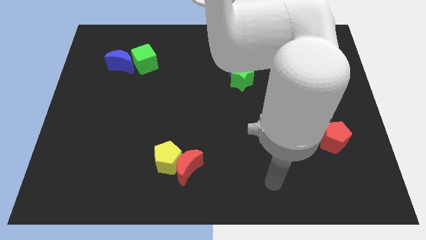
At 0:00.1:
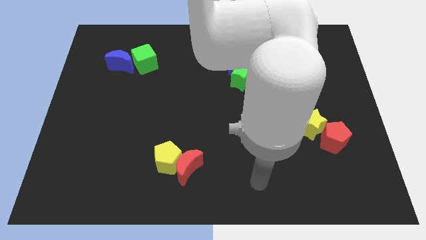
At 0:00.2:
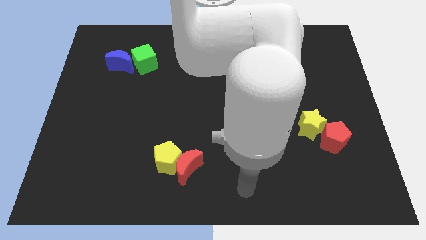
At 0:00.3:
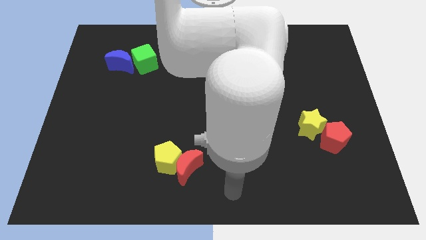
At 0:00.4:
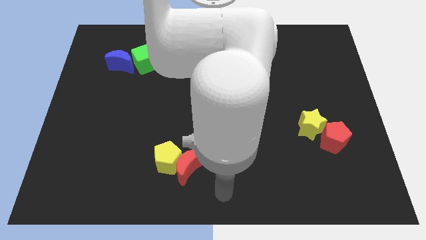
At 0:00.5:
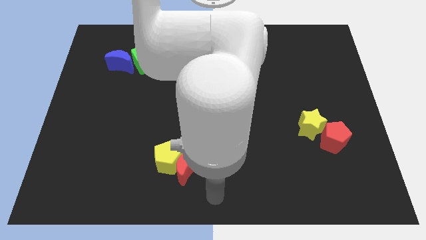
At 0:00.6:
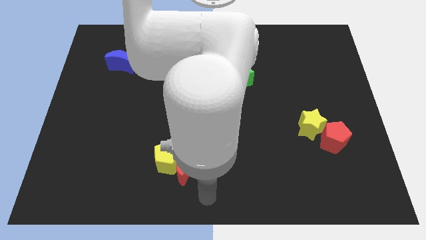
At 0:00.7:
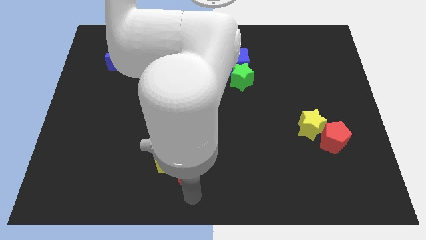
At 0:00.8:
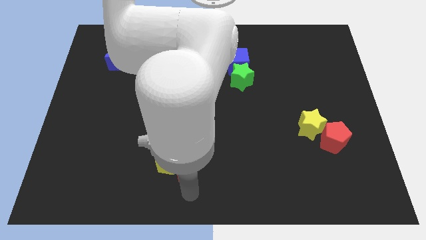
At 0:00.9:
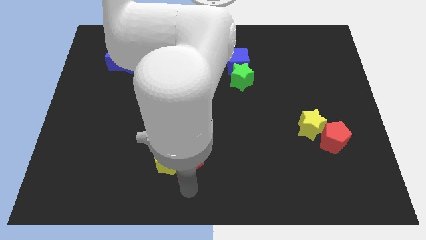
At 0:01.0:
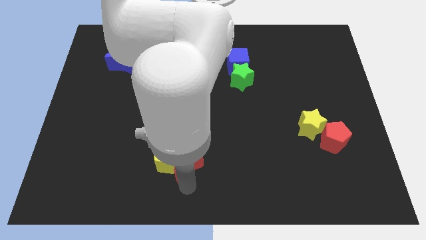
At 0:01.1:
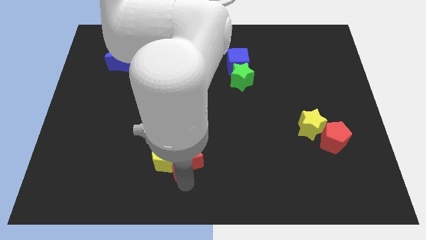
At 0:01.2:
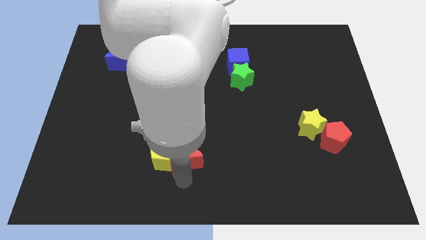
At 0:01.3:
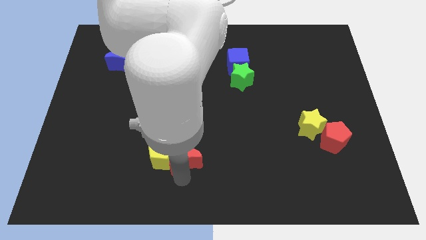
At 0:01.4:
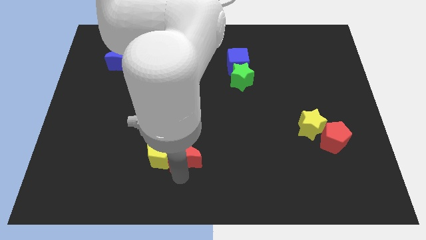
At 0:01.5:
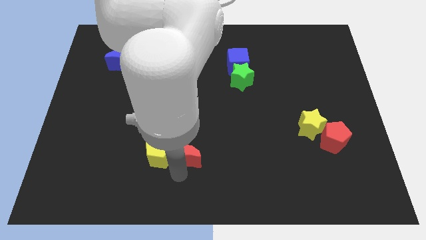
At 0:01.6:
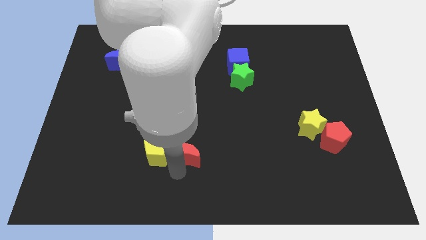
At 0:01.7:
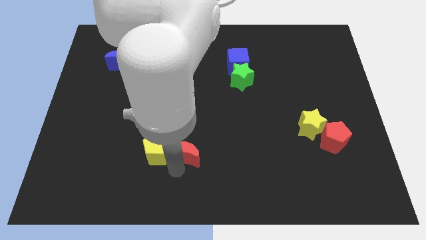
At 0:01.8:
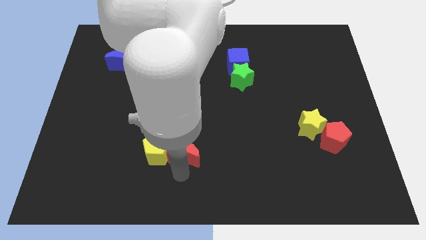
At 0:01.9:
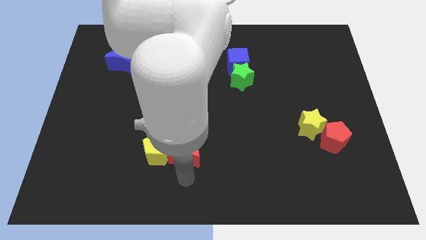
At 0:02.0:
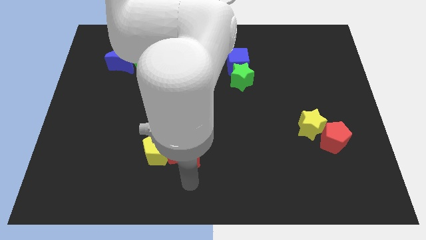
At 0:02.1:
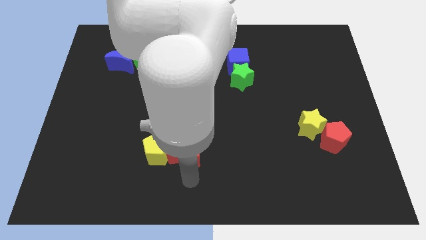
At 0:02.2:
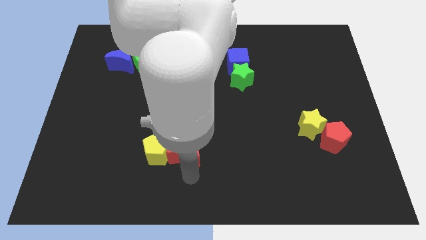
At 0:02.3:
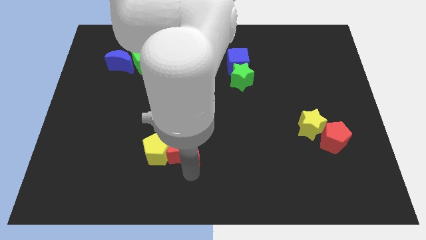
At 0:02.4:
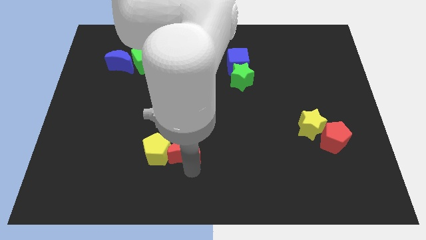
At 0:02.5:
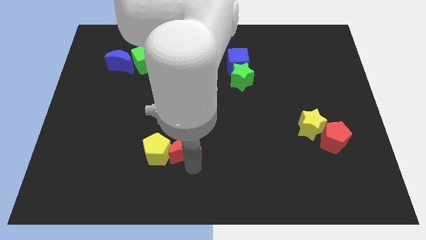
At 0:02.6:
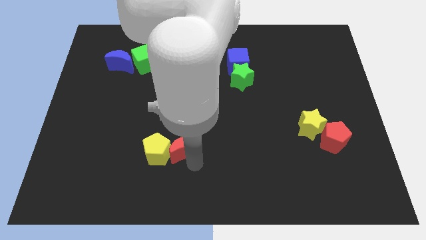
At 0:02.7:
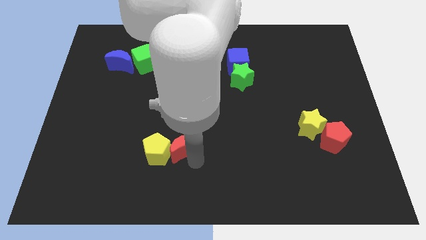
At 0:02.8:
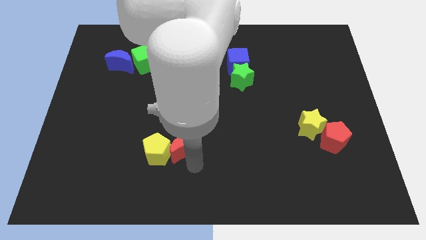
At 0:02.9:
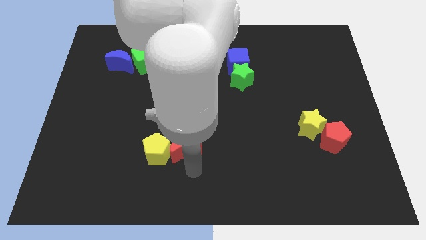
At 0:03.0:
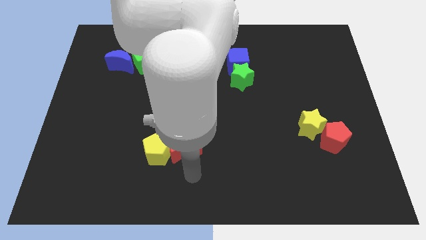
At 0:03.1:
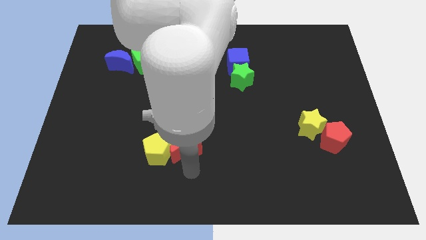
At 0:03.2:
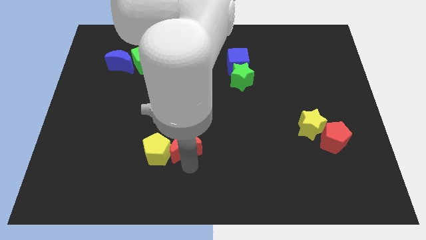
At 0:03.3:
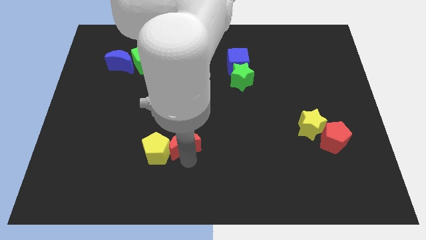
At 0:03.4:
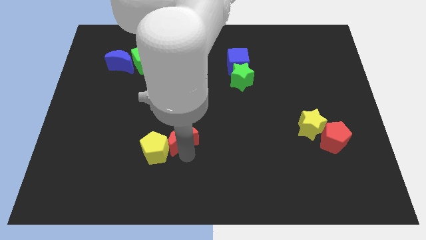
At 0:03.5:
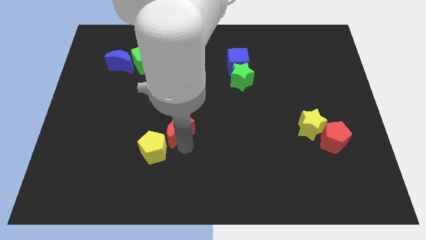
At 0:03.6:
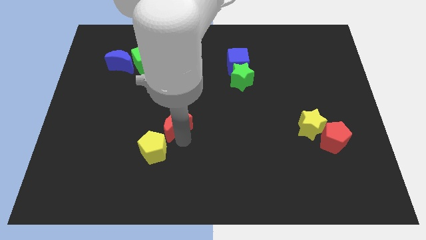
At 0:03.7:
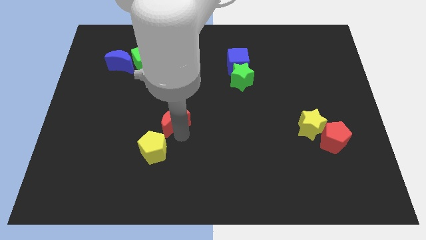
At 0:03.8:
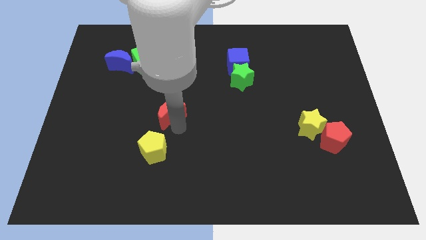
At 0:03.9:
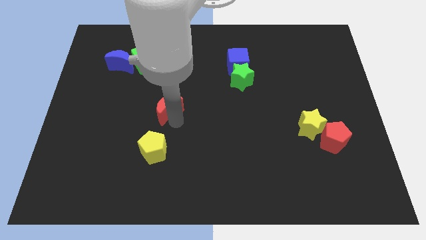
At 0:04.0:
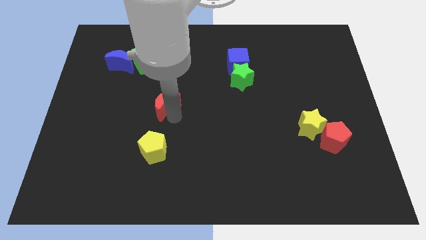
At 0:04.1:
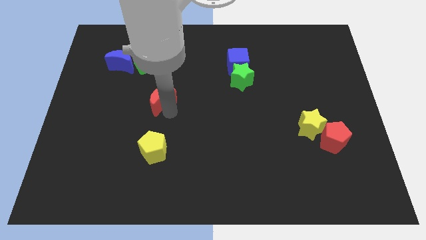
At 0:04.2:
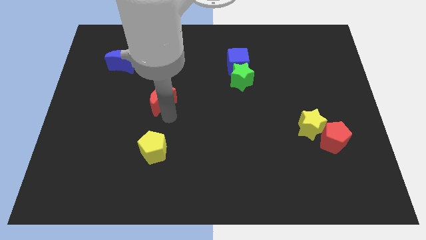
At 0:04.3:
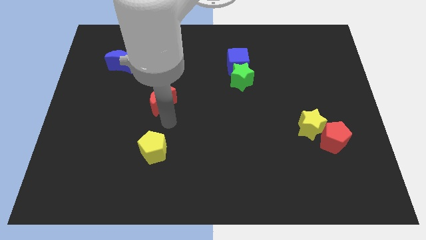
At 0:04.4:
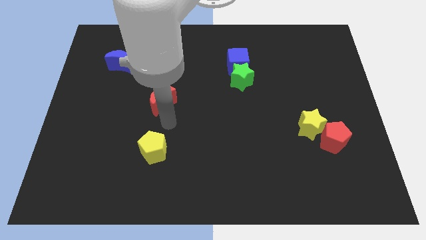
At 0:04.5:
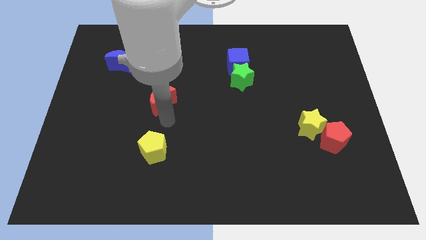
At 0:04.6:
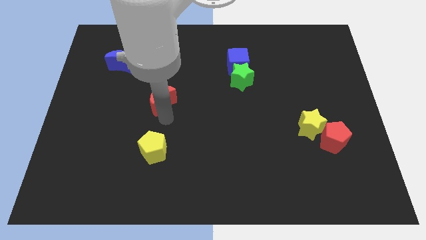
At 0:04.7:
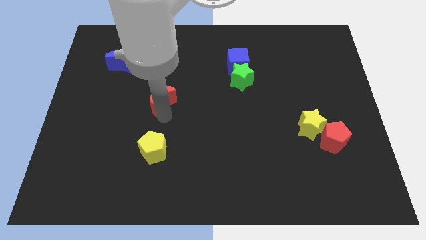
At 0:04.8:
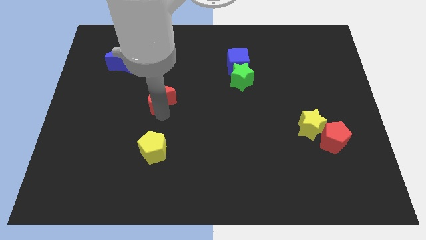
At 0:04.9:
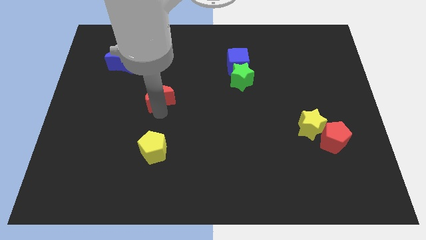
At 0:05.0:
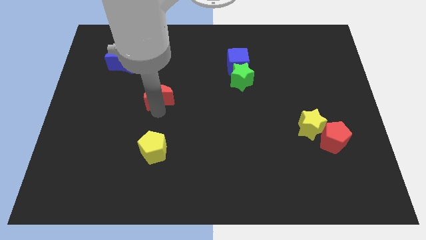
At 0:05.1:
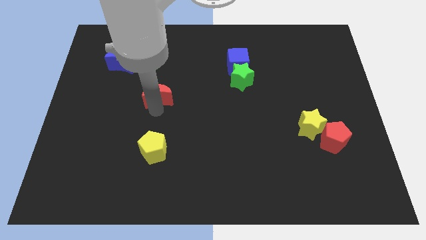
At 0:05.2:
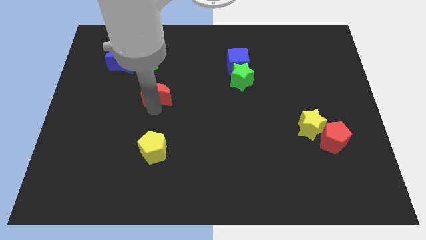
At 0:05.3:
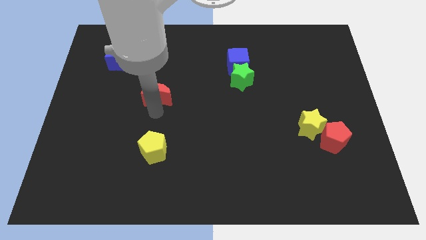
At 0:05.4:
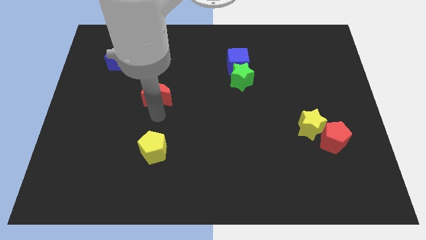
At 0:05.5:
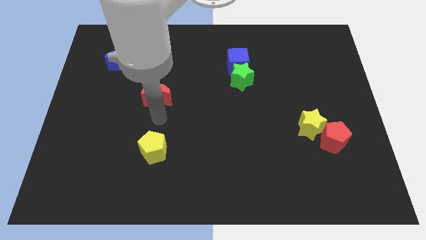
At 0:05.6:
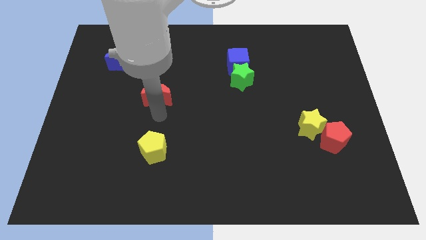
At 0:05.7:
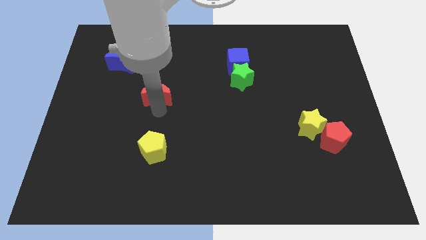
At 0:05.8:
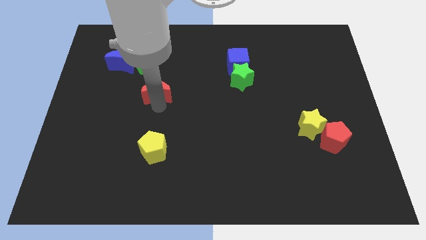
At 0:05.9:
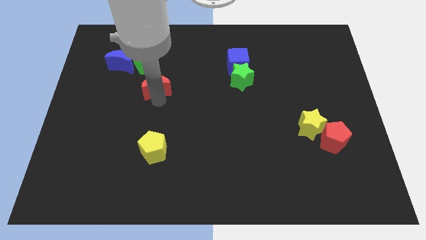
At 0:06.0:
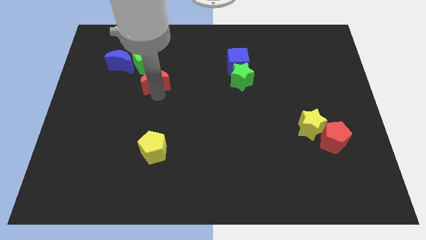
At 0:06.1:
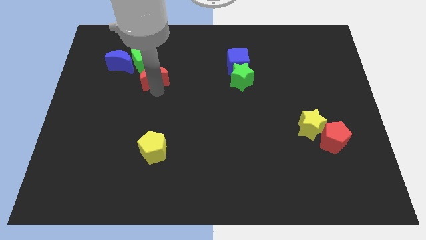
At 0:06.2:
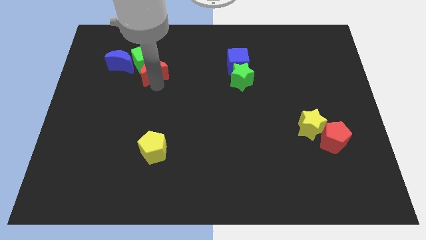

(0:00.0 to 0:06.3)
push the red moon to the green cube

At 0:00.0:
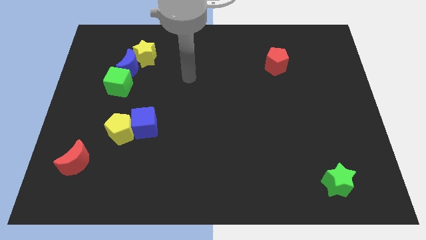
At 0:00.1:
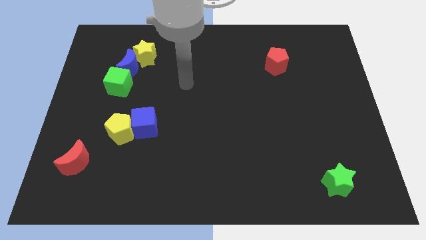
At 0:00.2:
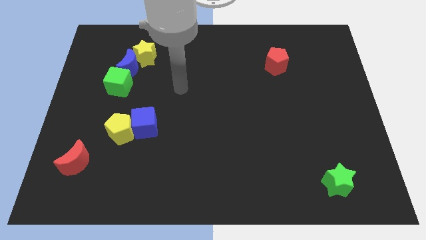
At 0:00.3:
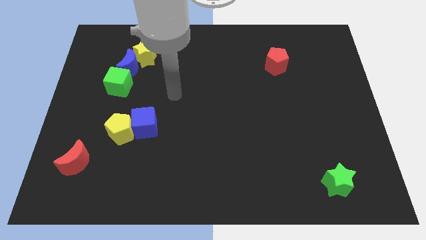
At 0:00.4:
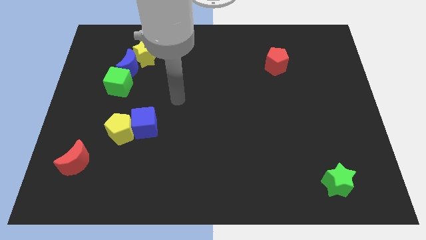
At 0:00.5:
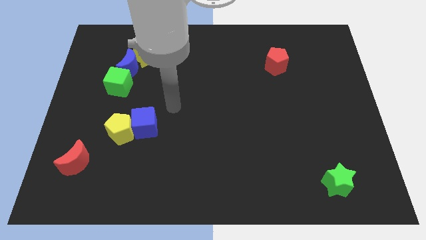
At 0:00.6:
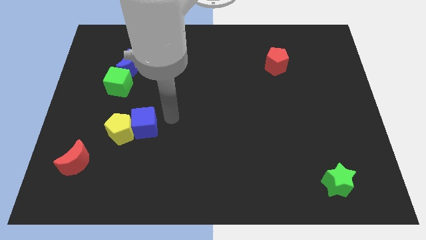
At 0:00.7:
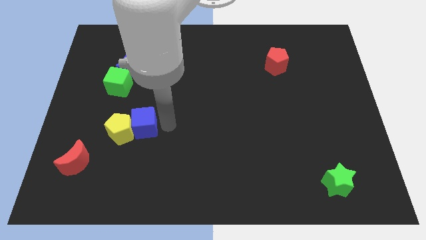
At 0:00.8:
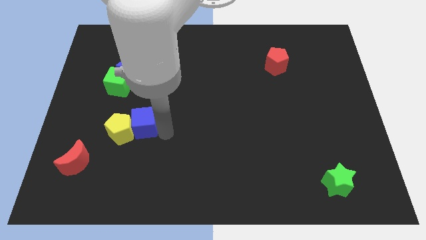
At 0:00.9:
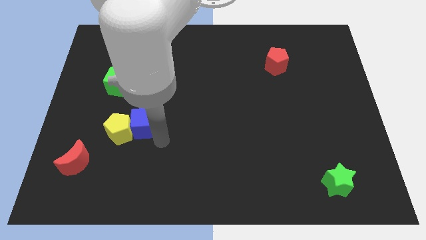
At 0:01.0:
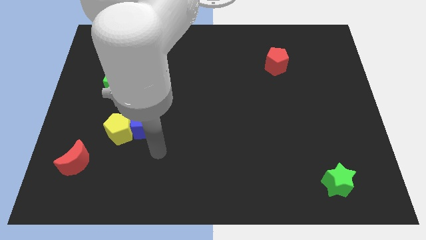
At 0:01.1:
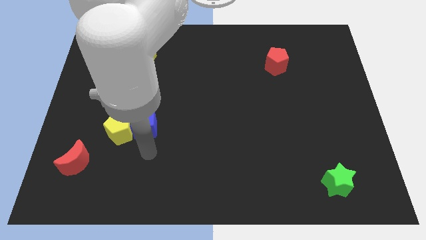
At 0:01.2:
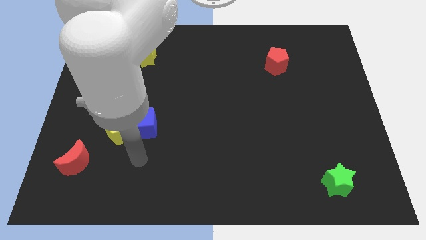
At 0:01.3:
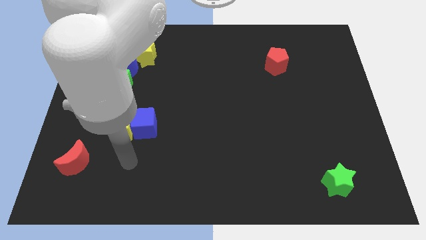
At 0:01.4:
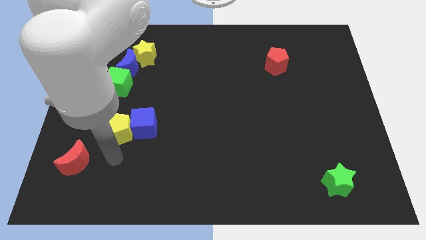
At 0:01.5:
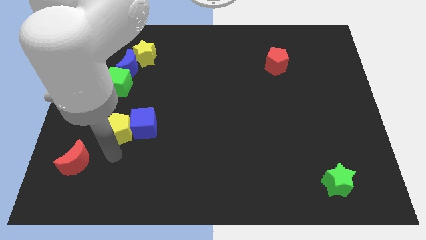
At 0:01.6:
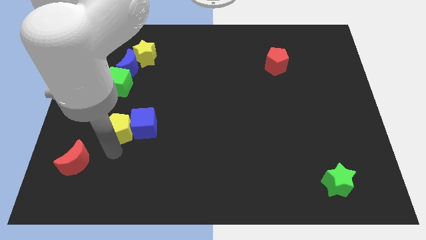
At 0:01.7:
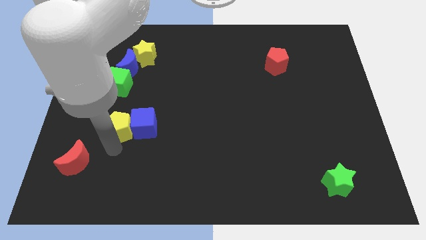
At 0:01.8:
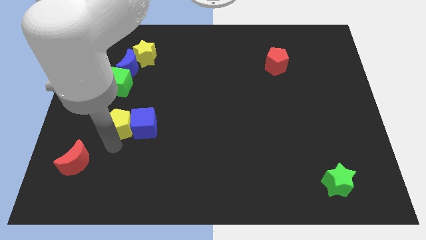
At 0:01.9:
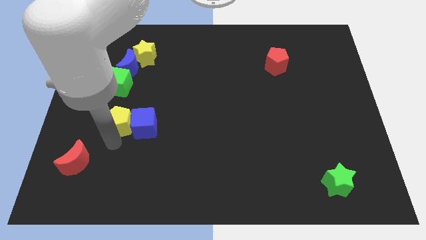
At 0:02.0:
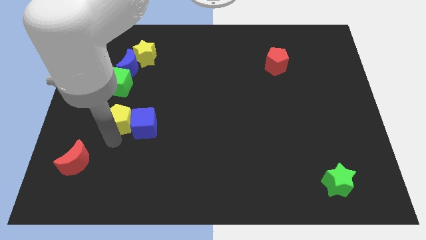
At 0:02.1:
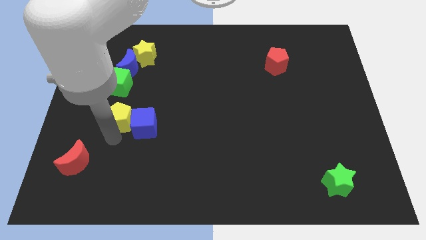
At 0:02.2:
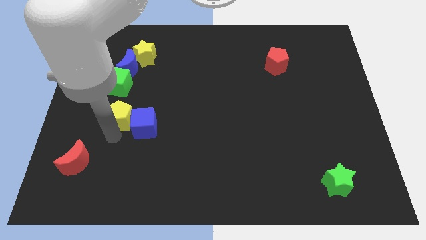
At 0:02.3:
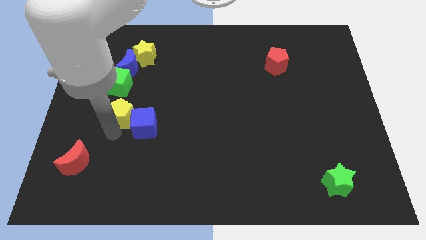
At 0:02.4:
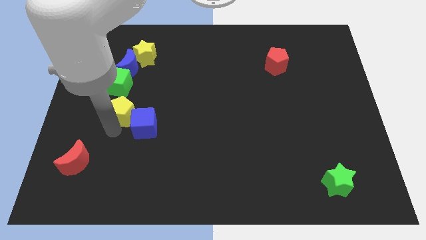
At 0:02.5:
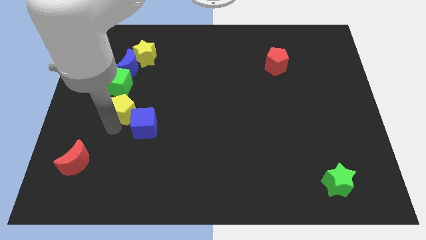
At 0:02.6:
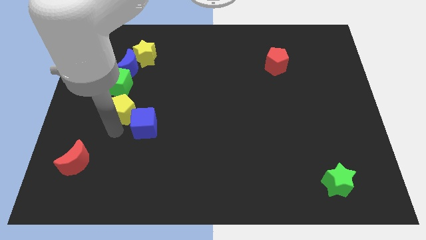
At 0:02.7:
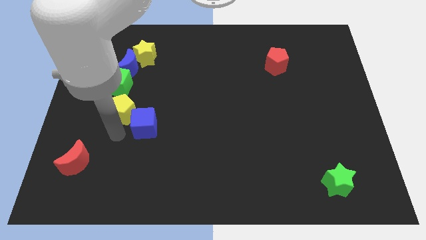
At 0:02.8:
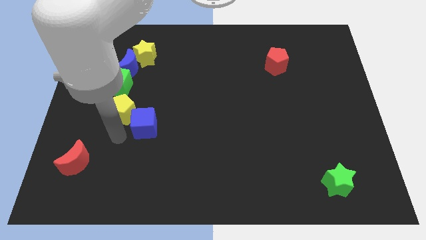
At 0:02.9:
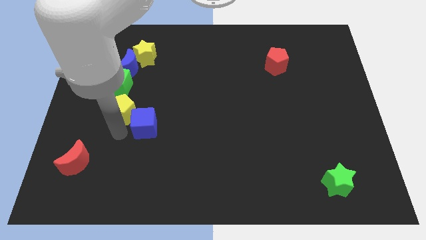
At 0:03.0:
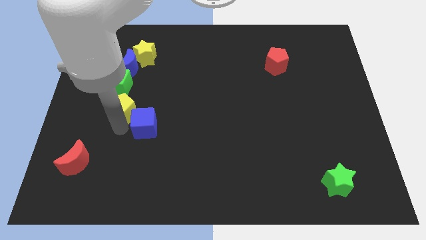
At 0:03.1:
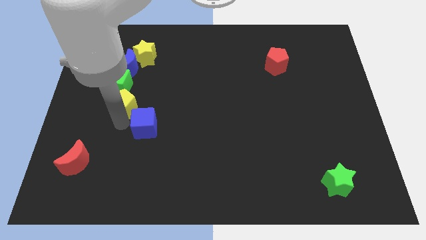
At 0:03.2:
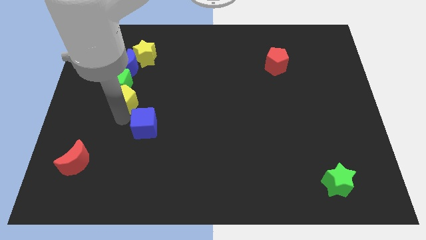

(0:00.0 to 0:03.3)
move the yellow pentagon towards the green cube
